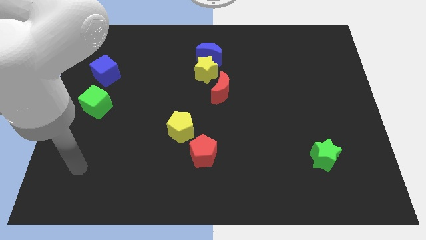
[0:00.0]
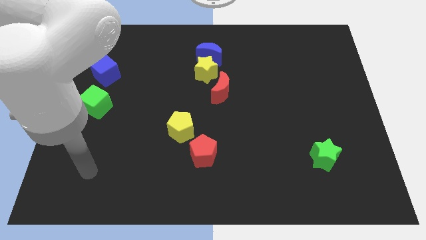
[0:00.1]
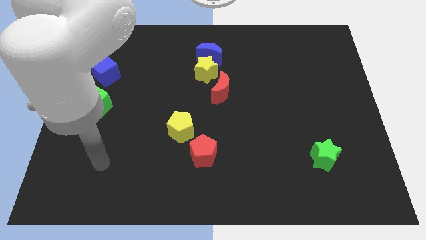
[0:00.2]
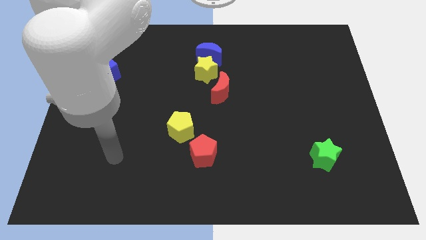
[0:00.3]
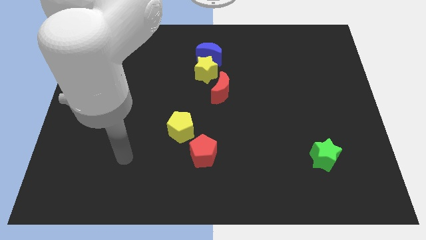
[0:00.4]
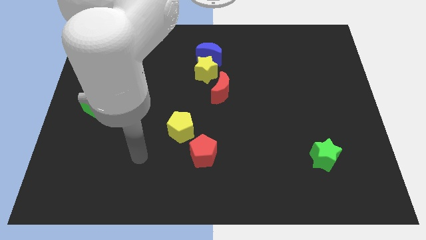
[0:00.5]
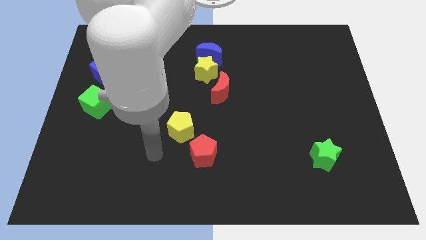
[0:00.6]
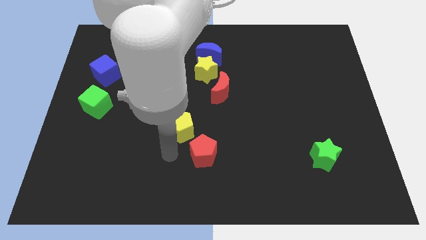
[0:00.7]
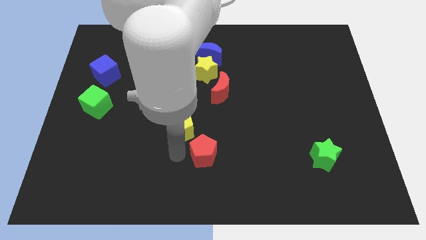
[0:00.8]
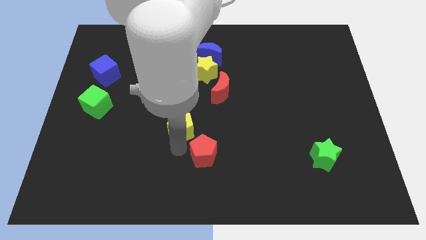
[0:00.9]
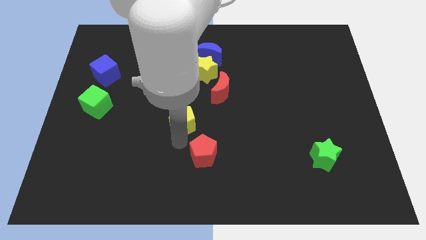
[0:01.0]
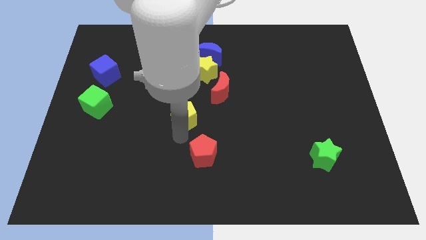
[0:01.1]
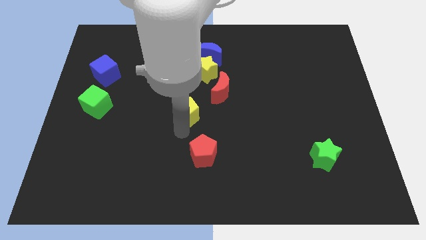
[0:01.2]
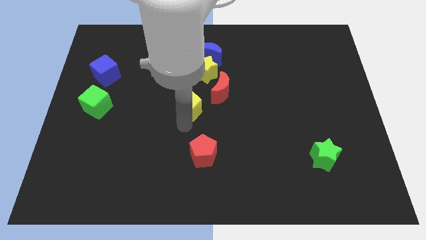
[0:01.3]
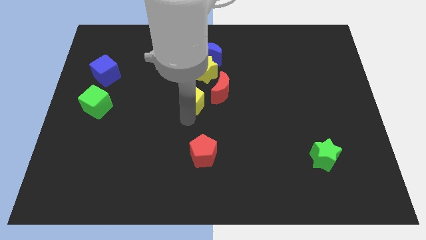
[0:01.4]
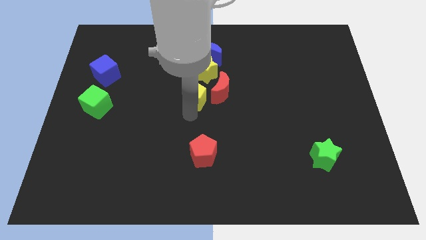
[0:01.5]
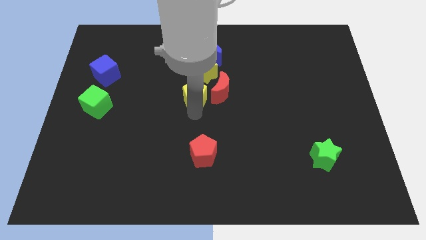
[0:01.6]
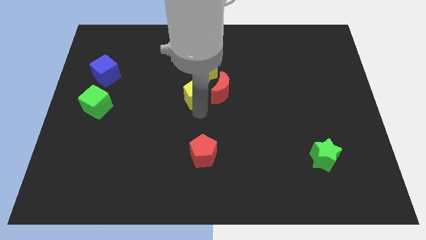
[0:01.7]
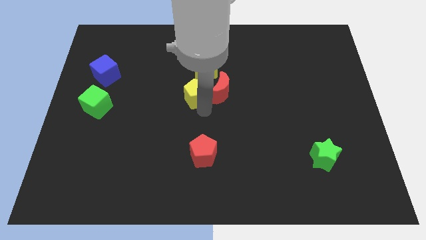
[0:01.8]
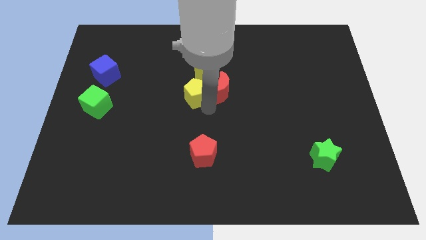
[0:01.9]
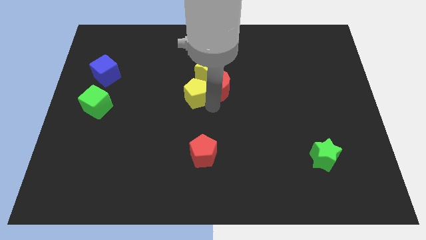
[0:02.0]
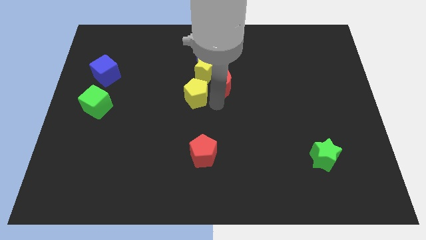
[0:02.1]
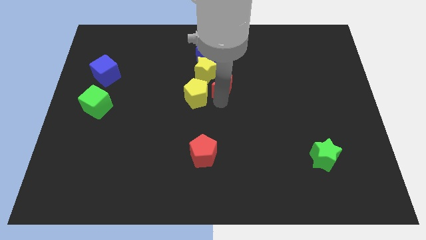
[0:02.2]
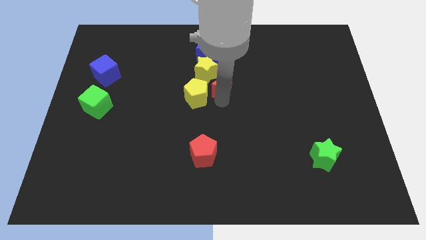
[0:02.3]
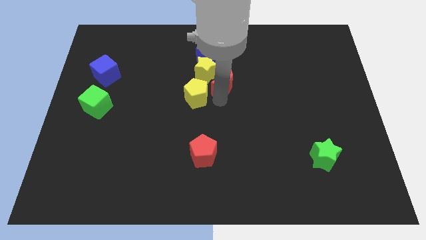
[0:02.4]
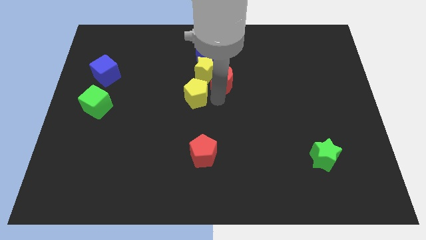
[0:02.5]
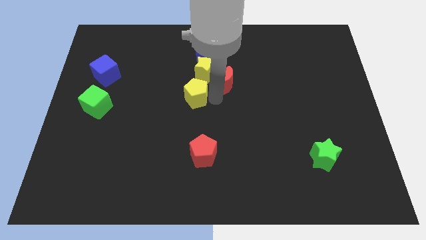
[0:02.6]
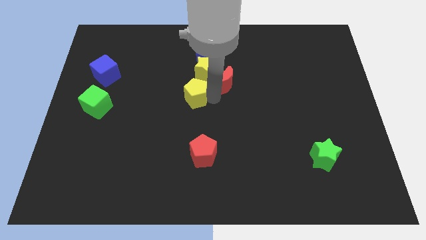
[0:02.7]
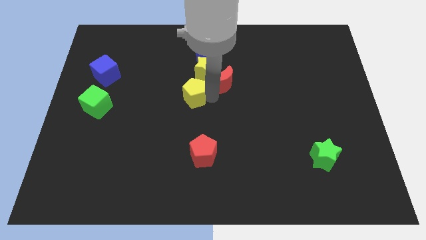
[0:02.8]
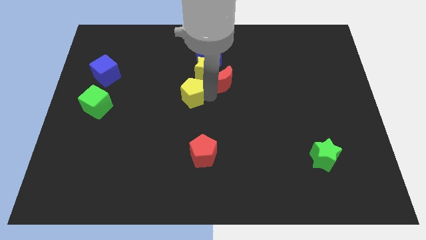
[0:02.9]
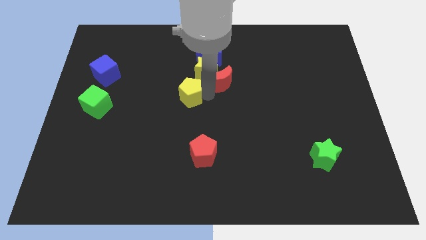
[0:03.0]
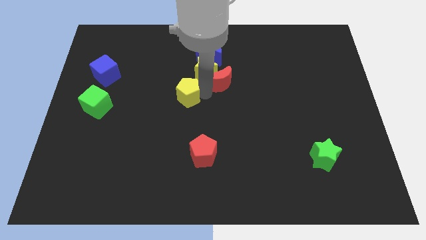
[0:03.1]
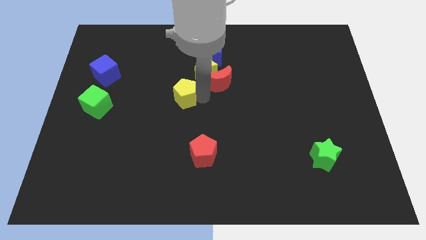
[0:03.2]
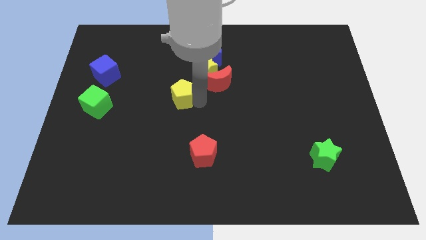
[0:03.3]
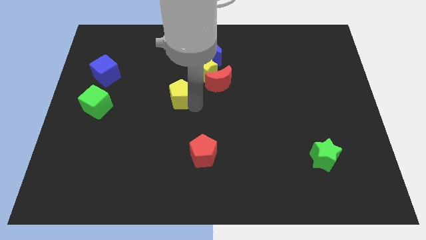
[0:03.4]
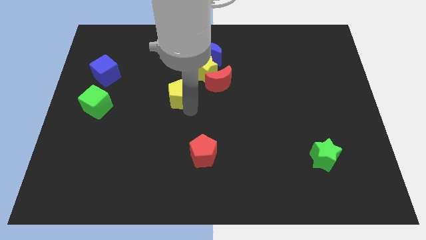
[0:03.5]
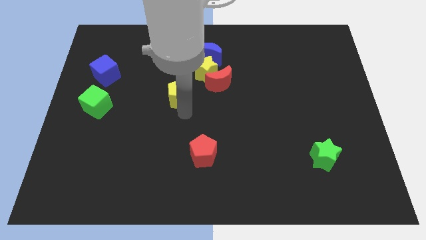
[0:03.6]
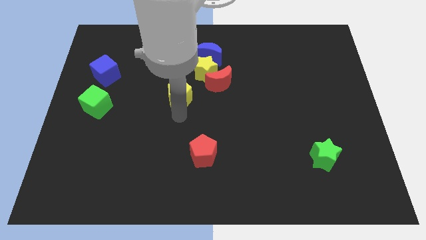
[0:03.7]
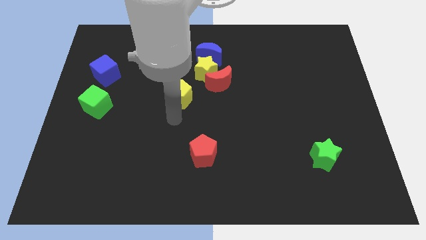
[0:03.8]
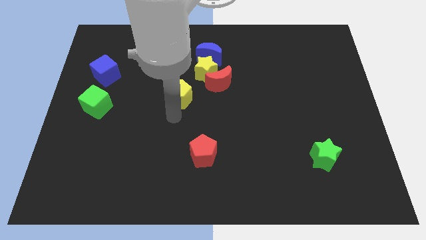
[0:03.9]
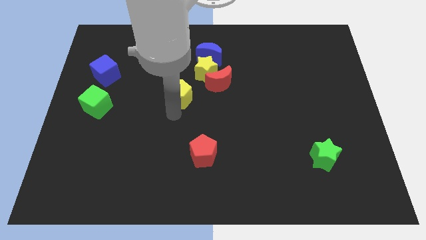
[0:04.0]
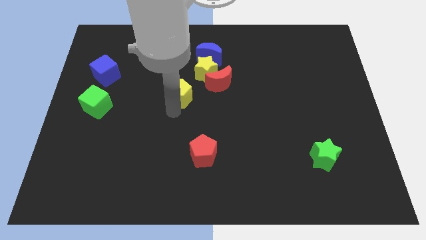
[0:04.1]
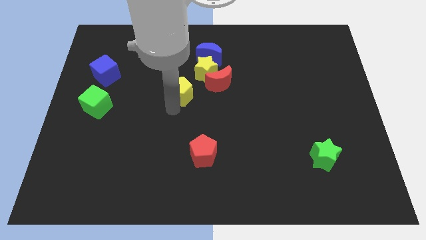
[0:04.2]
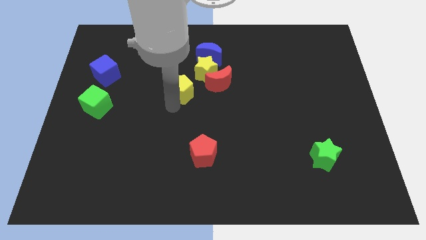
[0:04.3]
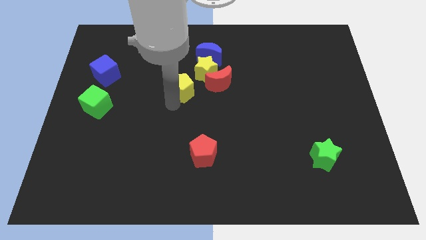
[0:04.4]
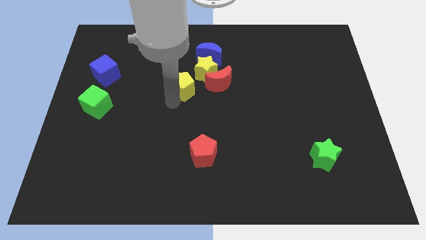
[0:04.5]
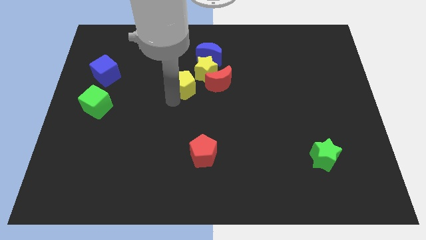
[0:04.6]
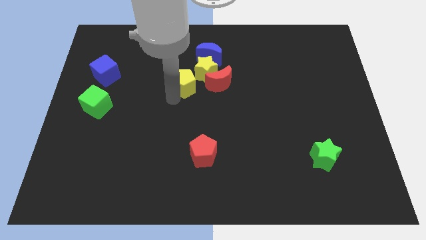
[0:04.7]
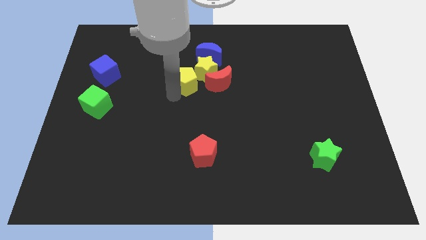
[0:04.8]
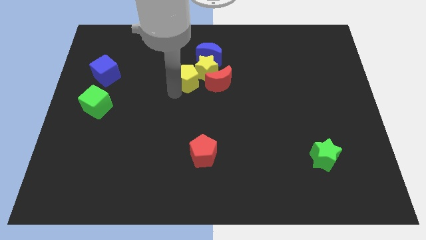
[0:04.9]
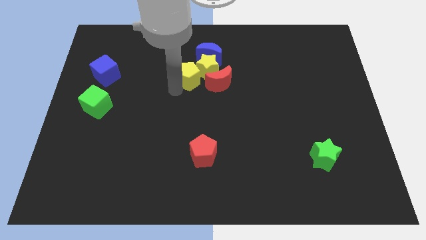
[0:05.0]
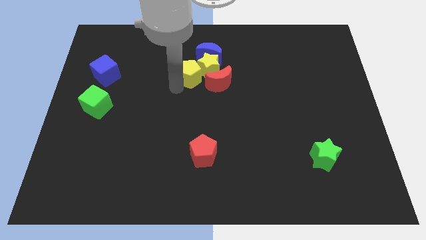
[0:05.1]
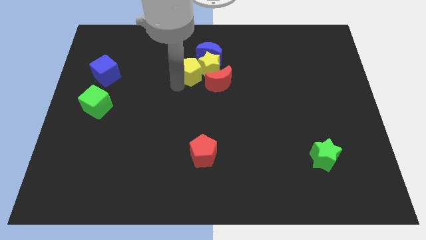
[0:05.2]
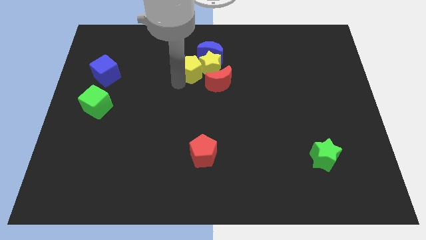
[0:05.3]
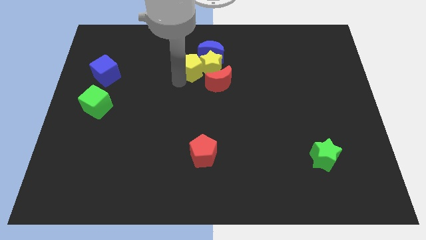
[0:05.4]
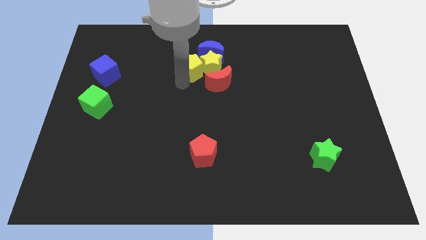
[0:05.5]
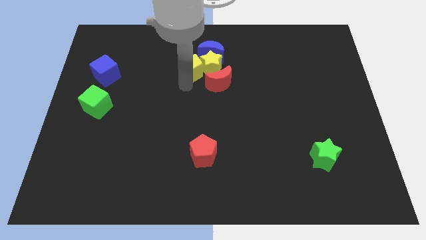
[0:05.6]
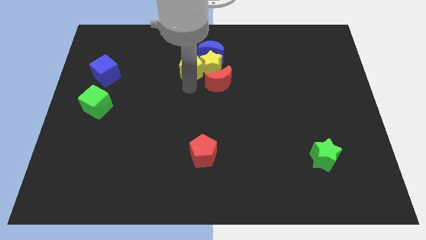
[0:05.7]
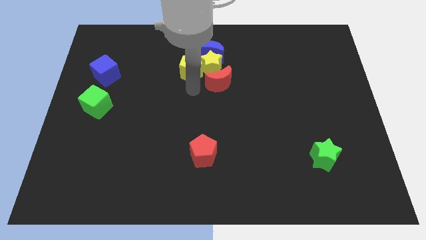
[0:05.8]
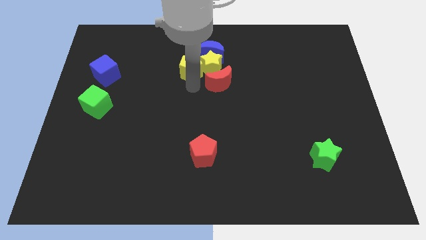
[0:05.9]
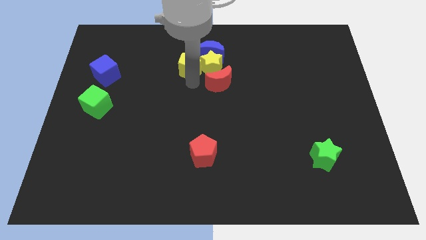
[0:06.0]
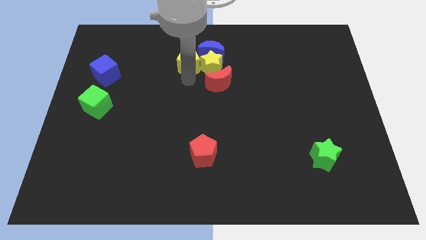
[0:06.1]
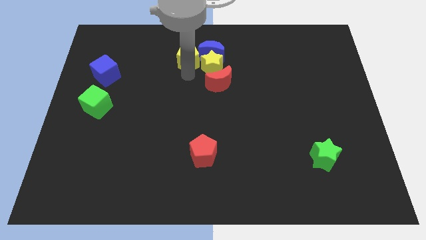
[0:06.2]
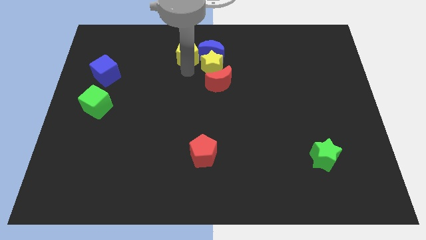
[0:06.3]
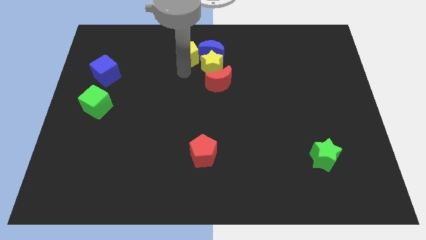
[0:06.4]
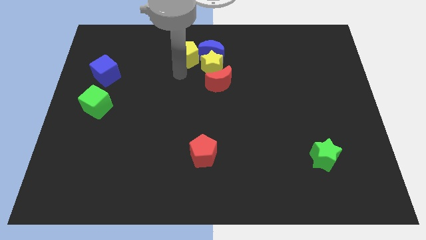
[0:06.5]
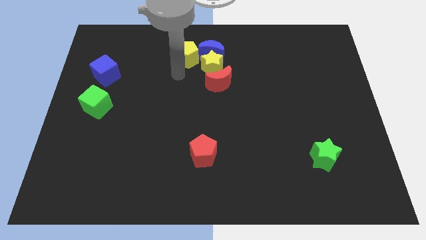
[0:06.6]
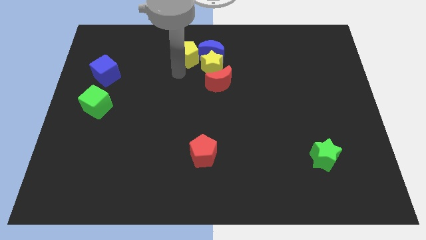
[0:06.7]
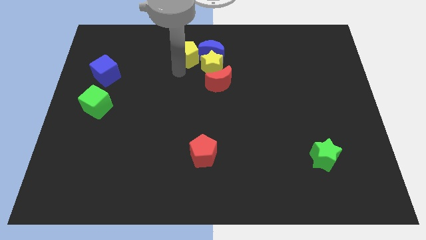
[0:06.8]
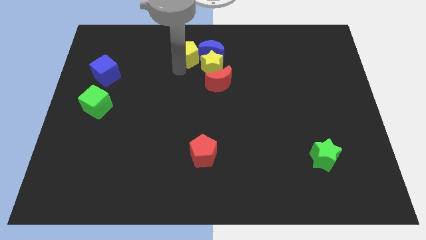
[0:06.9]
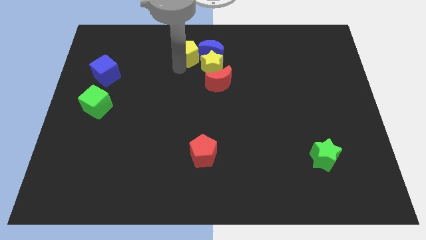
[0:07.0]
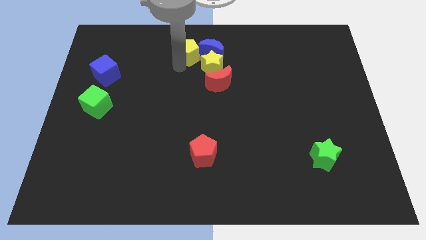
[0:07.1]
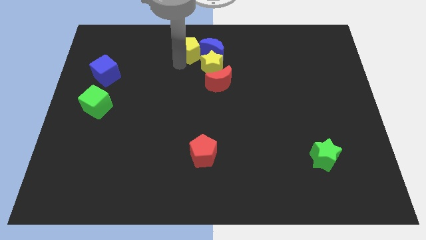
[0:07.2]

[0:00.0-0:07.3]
push the yellow pentagon to the top
